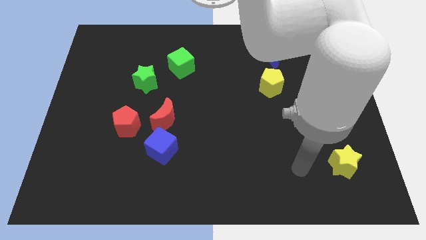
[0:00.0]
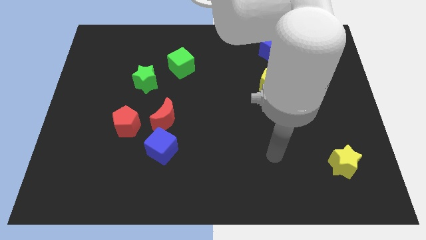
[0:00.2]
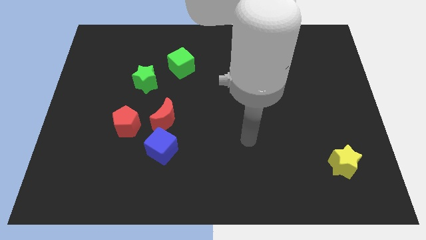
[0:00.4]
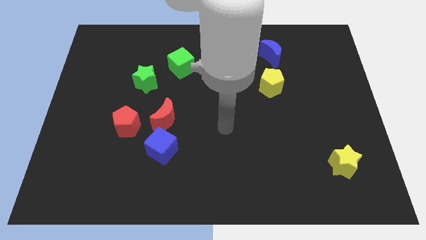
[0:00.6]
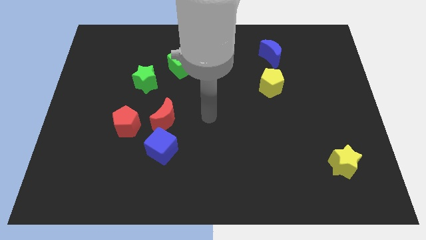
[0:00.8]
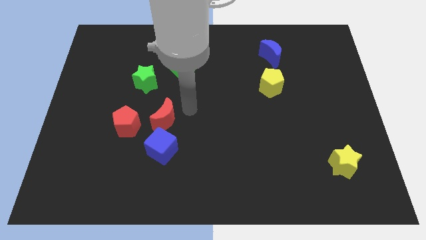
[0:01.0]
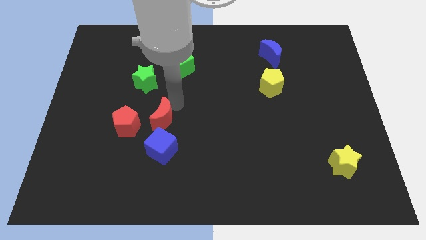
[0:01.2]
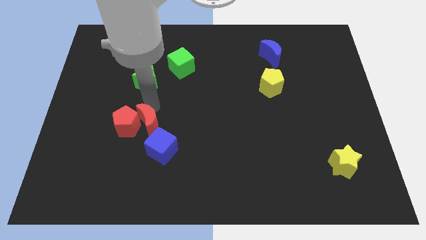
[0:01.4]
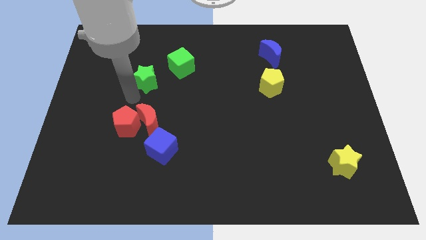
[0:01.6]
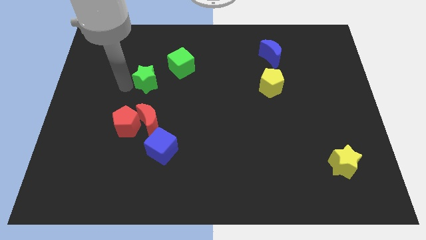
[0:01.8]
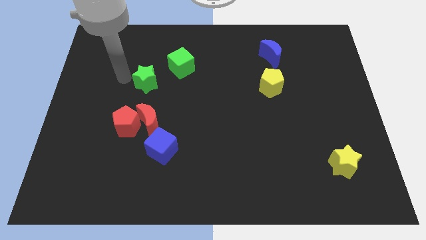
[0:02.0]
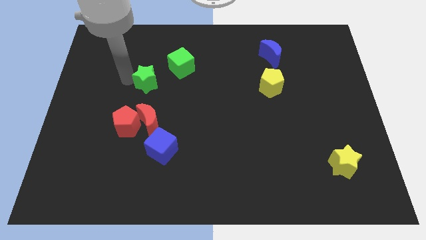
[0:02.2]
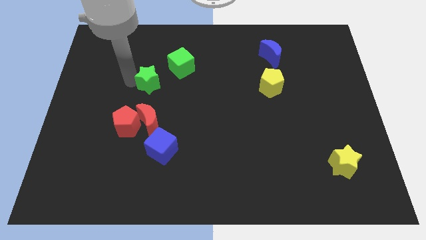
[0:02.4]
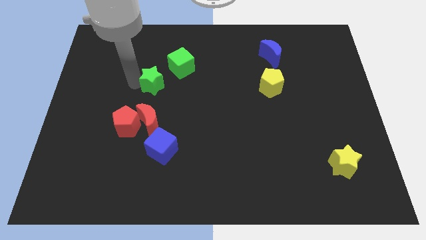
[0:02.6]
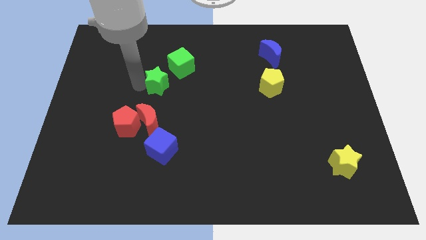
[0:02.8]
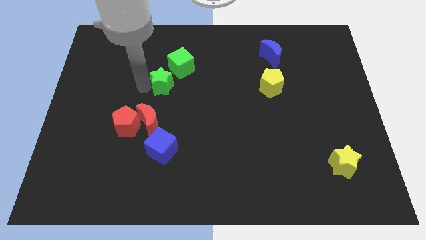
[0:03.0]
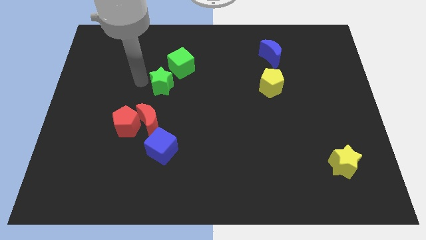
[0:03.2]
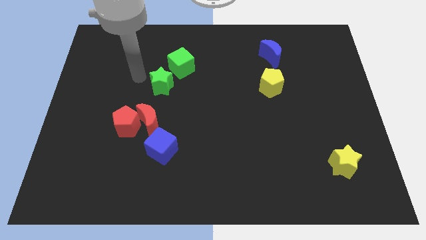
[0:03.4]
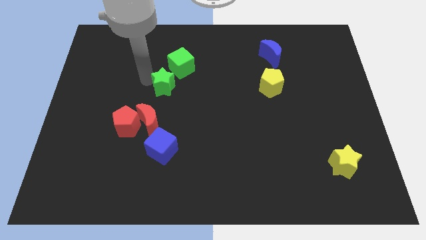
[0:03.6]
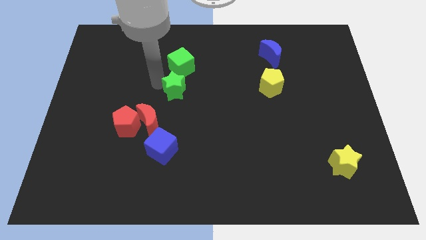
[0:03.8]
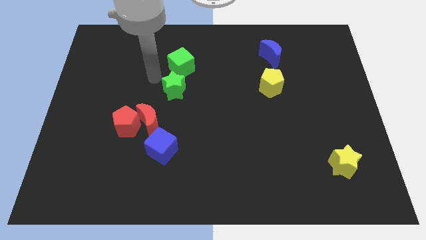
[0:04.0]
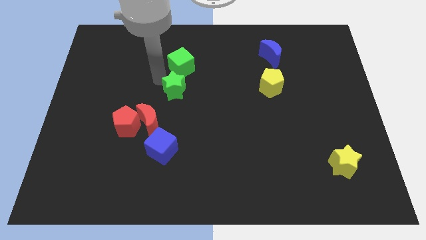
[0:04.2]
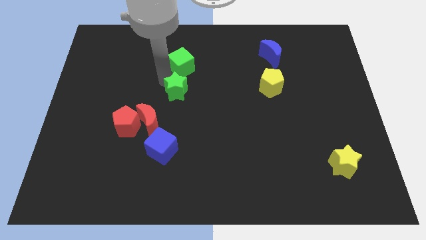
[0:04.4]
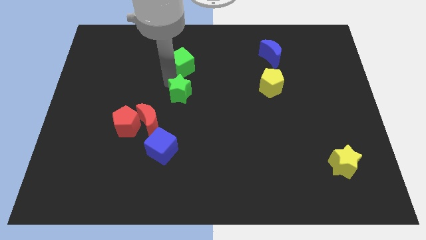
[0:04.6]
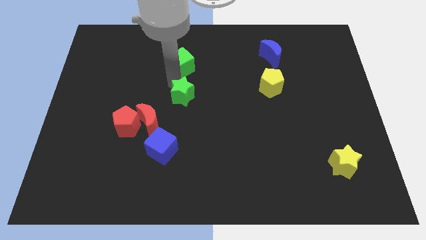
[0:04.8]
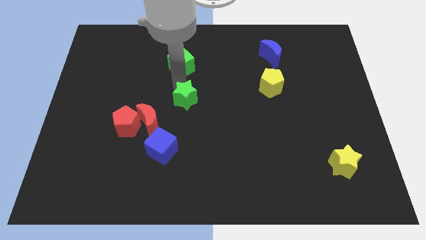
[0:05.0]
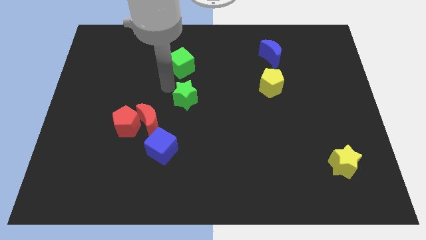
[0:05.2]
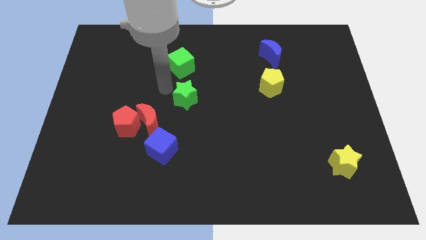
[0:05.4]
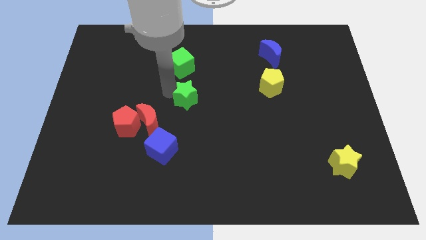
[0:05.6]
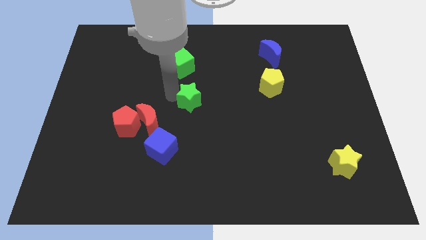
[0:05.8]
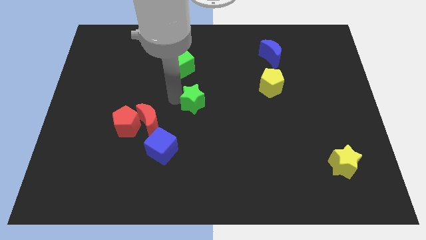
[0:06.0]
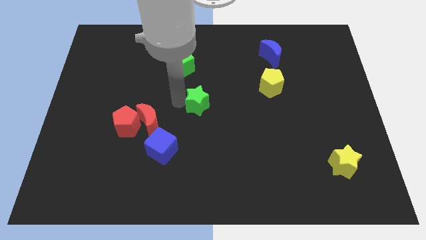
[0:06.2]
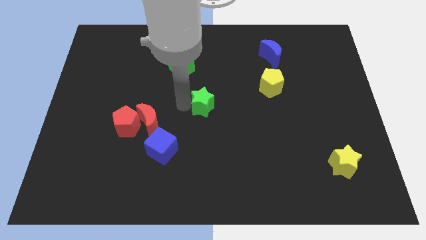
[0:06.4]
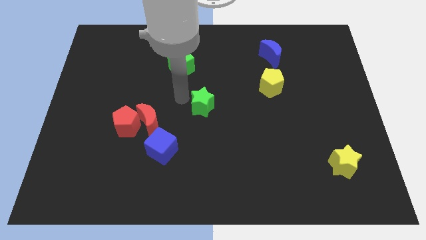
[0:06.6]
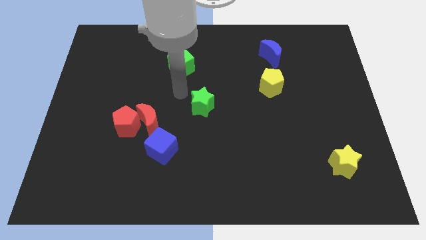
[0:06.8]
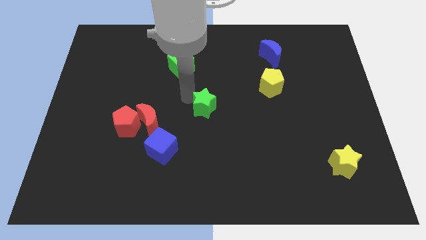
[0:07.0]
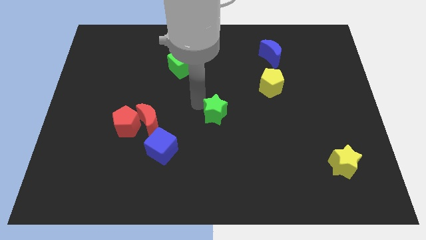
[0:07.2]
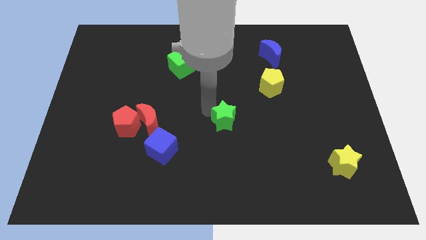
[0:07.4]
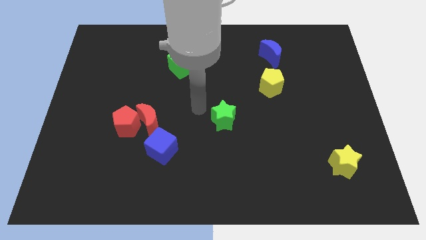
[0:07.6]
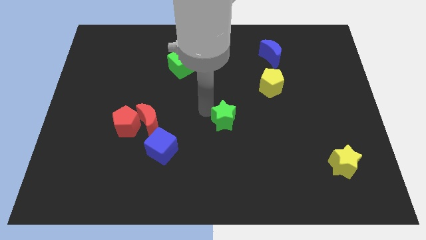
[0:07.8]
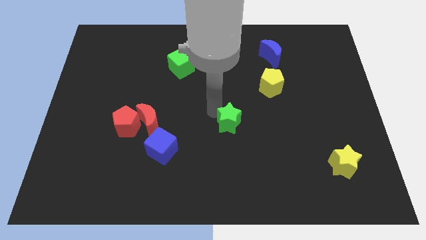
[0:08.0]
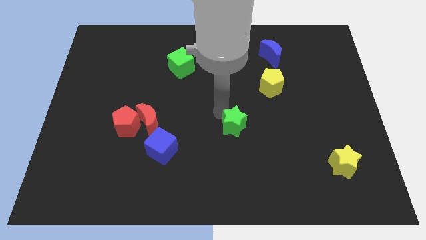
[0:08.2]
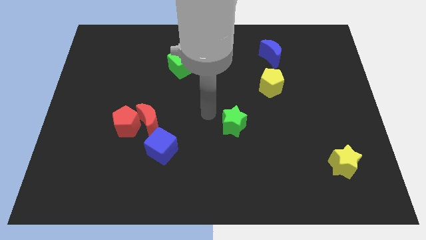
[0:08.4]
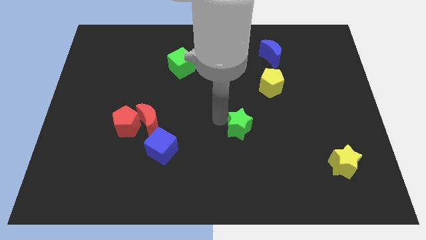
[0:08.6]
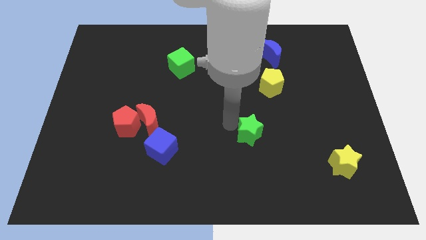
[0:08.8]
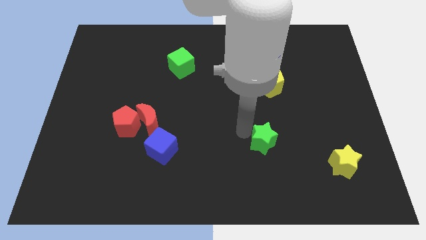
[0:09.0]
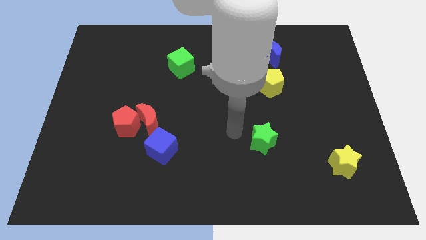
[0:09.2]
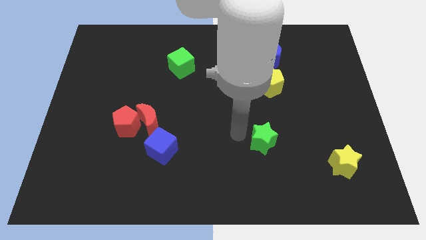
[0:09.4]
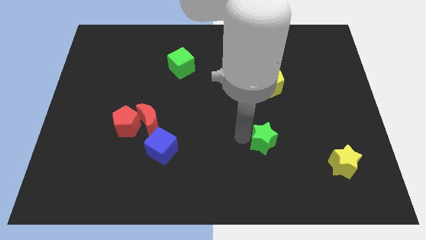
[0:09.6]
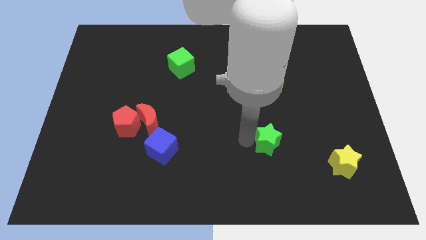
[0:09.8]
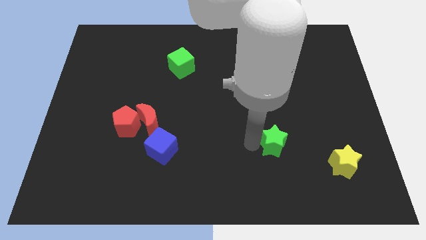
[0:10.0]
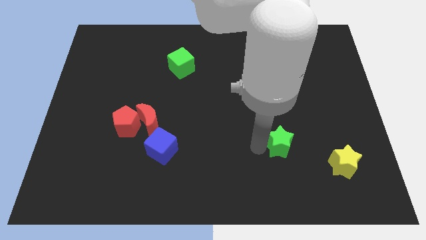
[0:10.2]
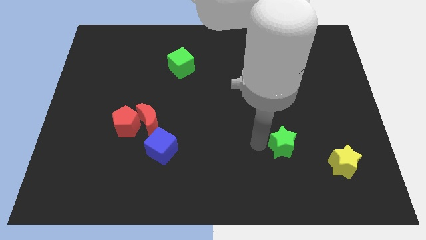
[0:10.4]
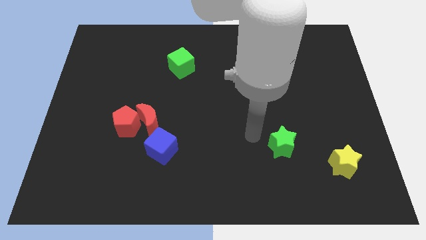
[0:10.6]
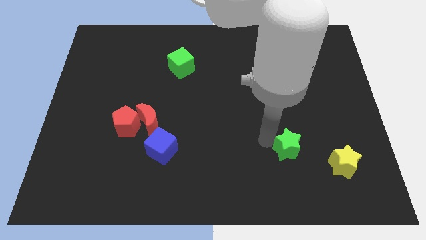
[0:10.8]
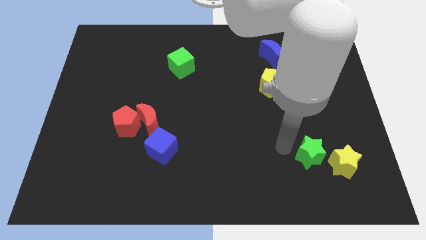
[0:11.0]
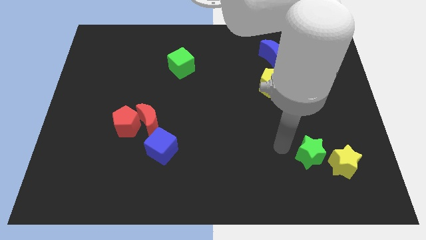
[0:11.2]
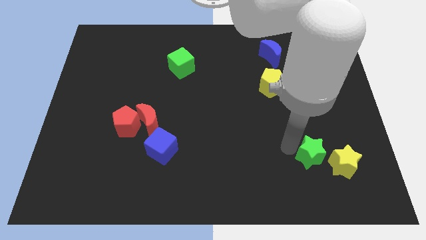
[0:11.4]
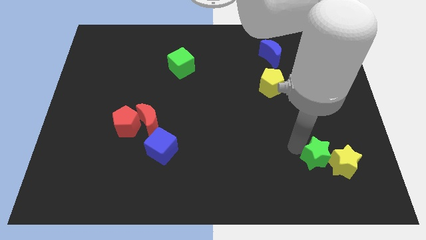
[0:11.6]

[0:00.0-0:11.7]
move the green star towards the yellow star
